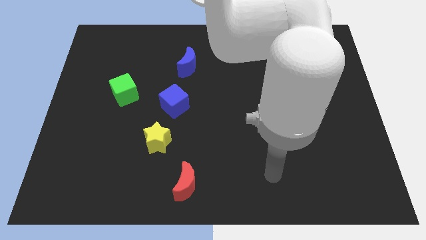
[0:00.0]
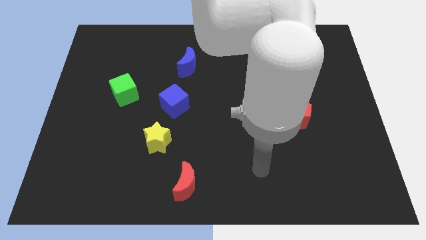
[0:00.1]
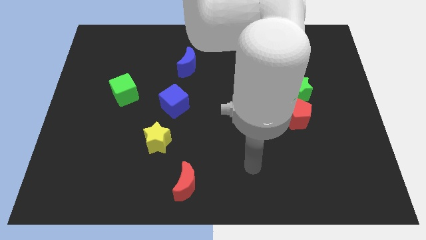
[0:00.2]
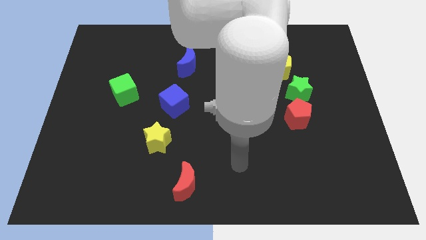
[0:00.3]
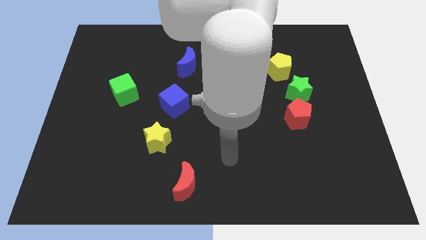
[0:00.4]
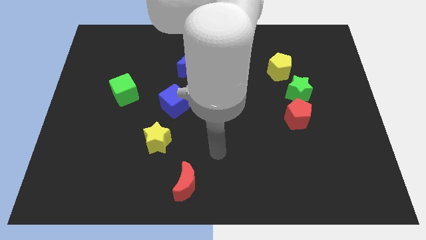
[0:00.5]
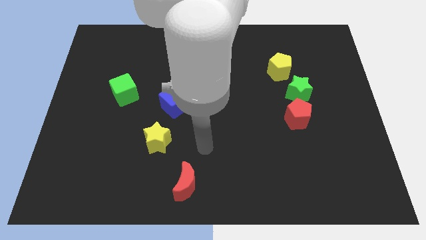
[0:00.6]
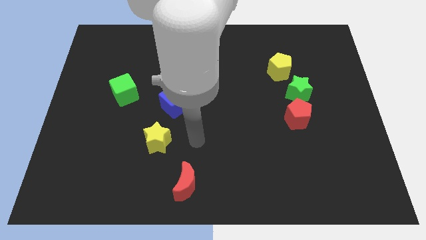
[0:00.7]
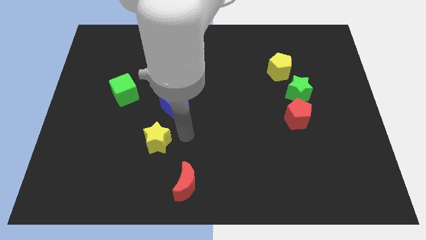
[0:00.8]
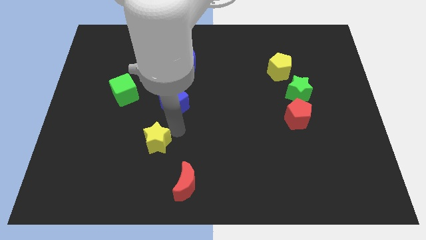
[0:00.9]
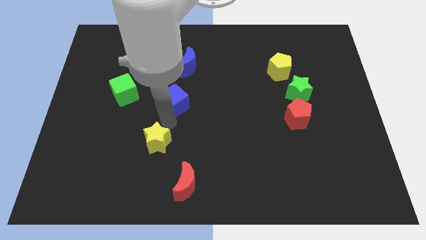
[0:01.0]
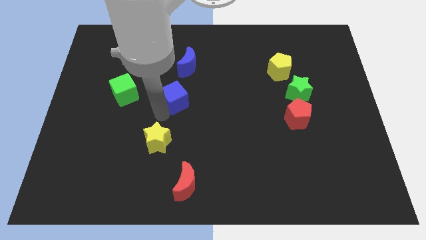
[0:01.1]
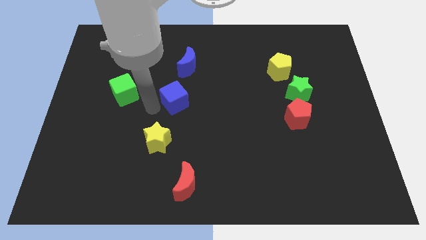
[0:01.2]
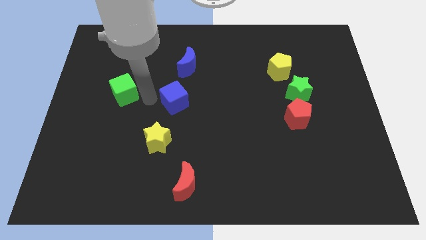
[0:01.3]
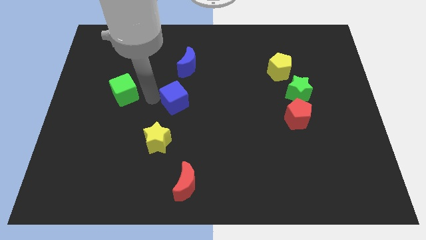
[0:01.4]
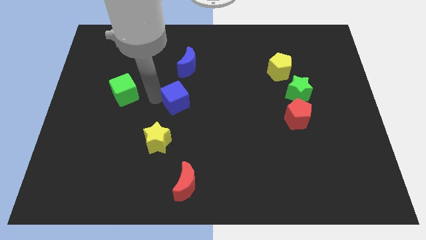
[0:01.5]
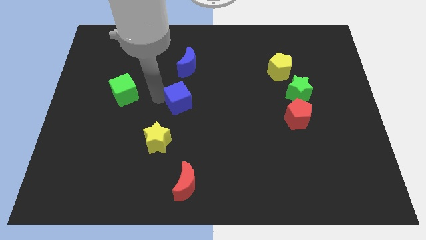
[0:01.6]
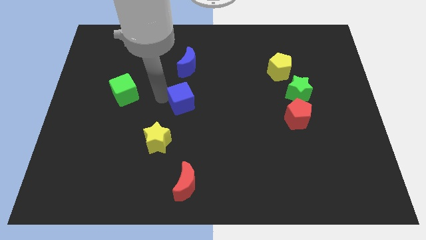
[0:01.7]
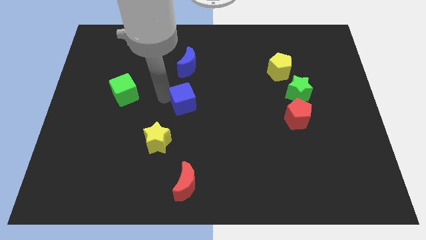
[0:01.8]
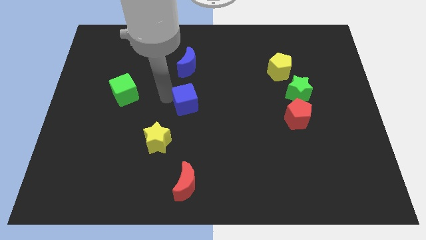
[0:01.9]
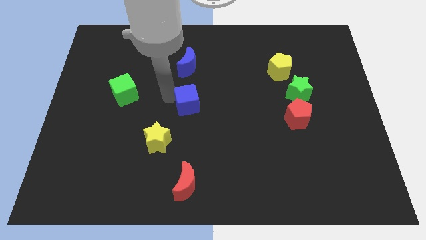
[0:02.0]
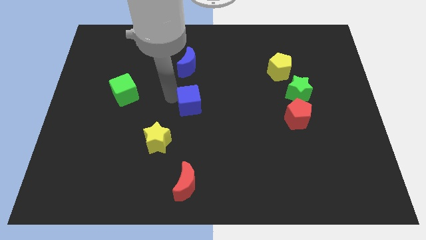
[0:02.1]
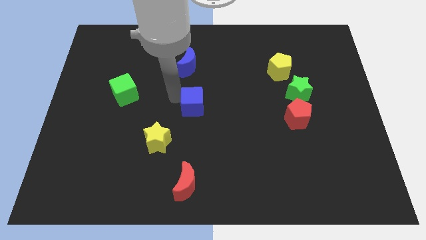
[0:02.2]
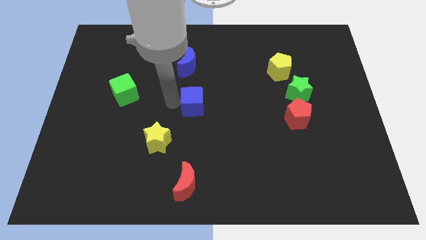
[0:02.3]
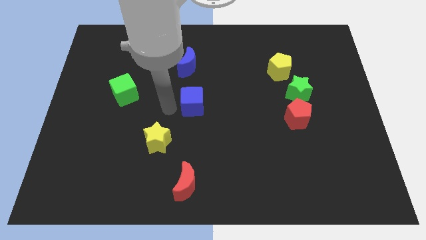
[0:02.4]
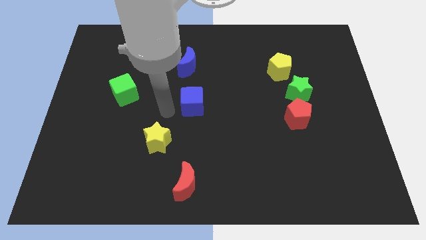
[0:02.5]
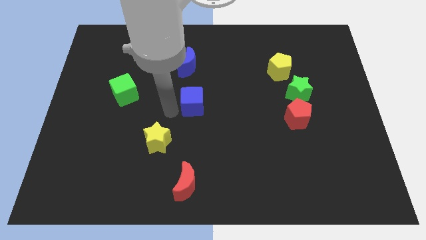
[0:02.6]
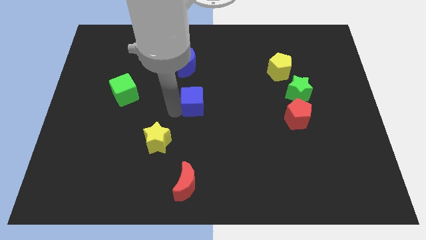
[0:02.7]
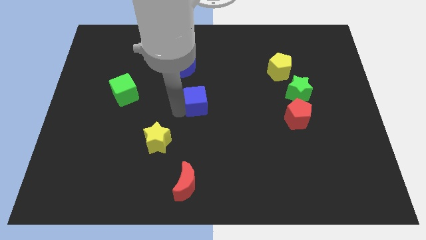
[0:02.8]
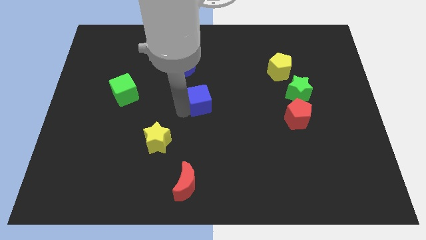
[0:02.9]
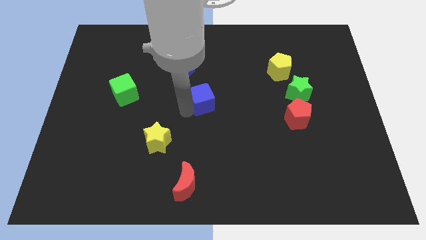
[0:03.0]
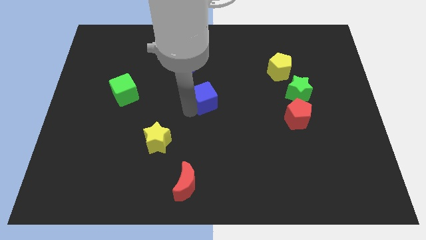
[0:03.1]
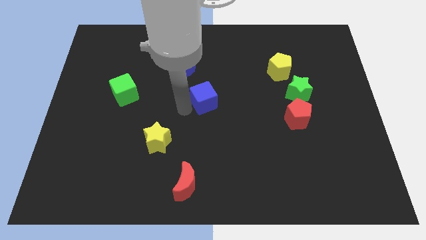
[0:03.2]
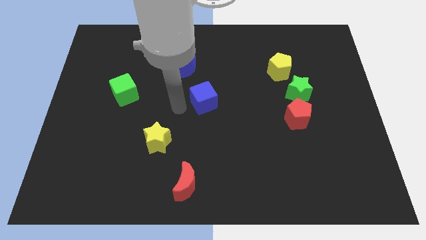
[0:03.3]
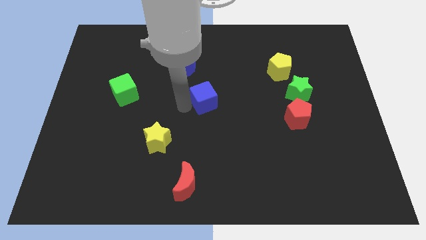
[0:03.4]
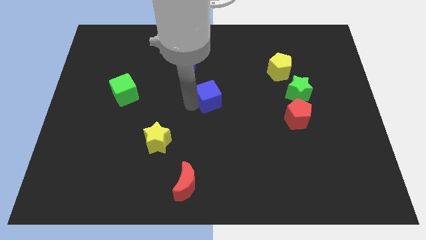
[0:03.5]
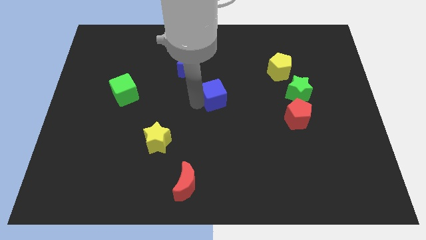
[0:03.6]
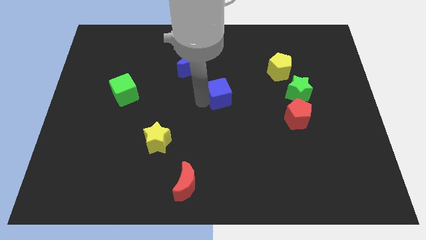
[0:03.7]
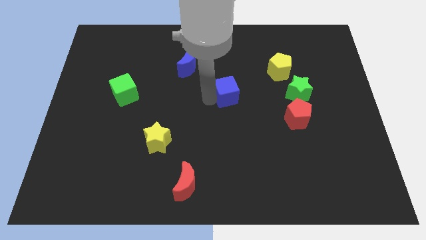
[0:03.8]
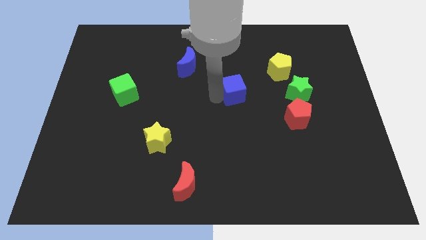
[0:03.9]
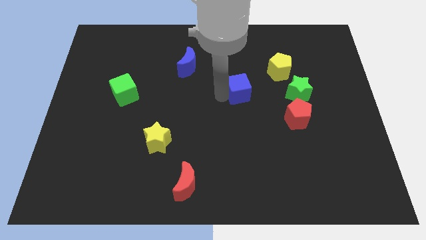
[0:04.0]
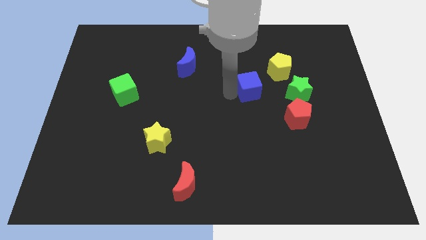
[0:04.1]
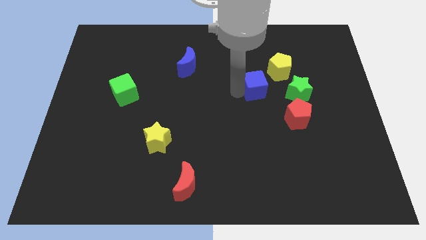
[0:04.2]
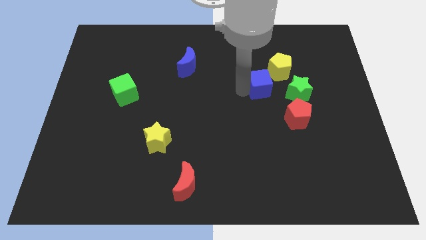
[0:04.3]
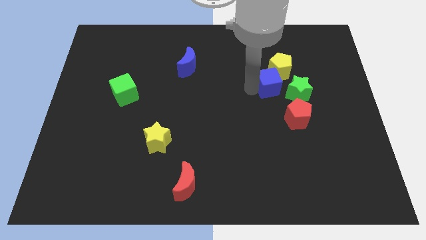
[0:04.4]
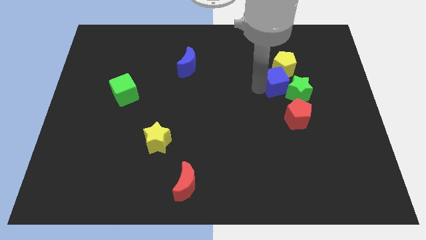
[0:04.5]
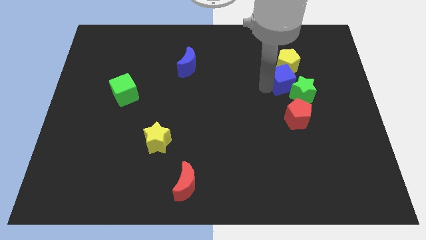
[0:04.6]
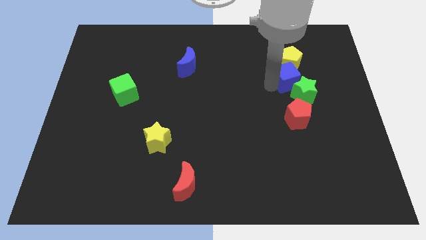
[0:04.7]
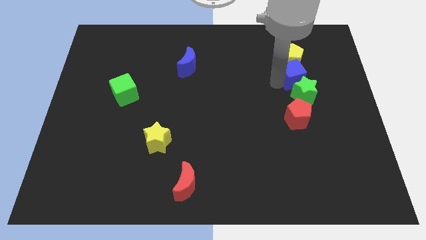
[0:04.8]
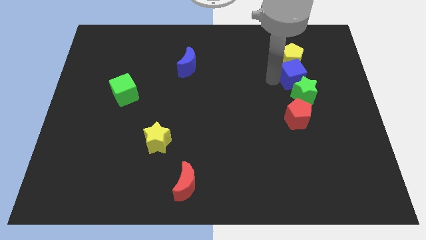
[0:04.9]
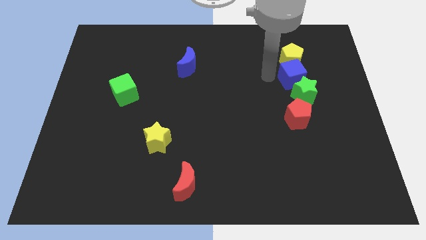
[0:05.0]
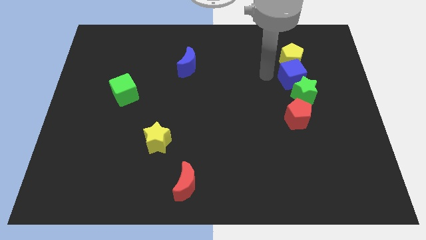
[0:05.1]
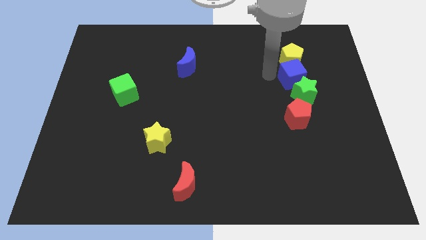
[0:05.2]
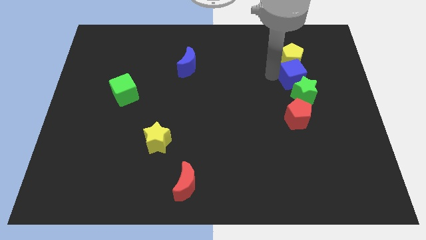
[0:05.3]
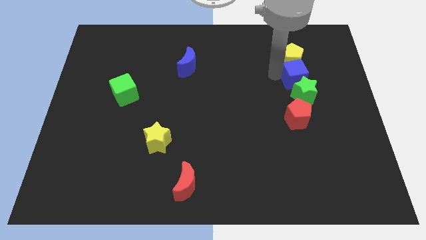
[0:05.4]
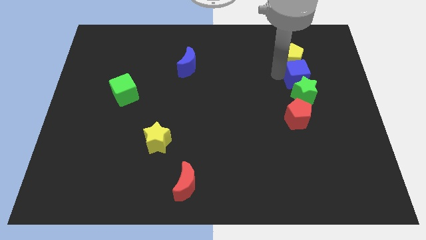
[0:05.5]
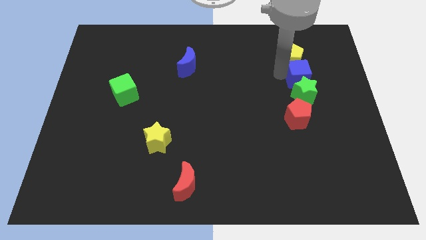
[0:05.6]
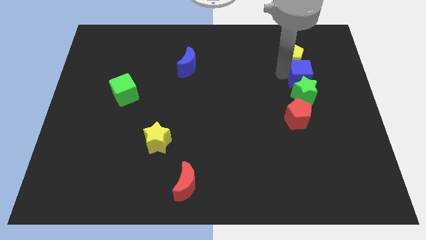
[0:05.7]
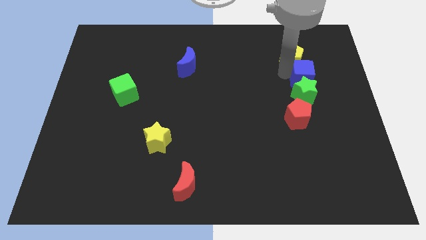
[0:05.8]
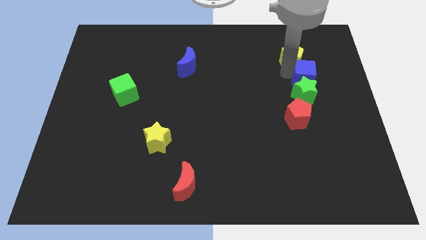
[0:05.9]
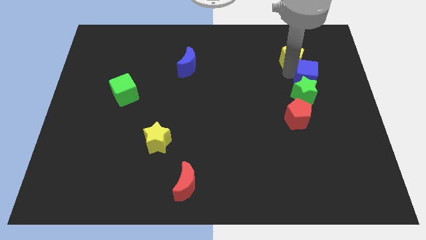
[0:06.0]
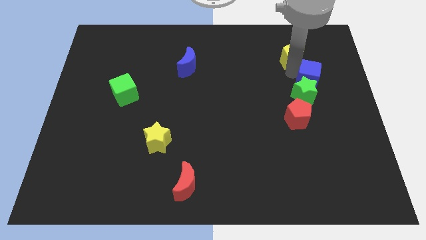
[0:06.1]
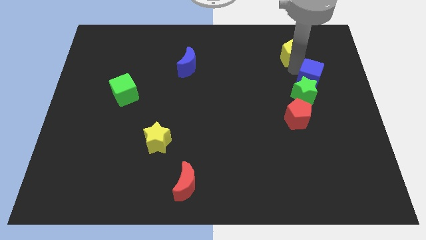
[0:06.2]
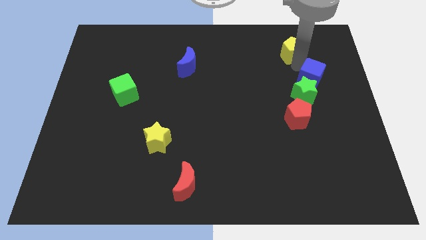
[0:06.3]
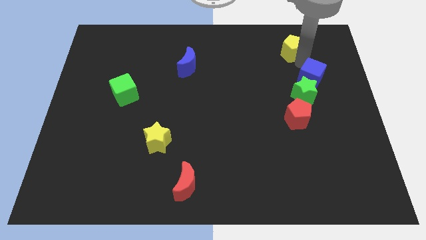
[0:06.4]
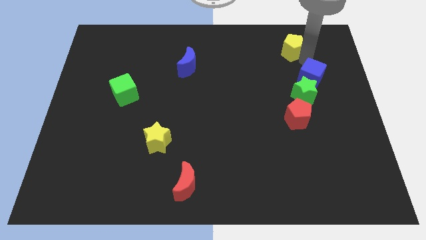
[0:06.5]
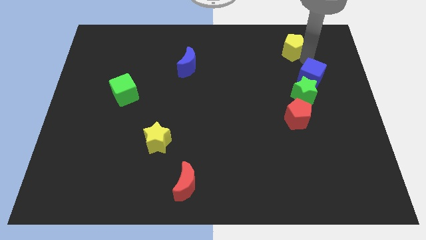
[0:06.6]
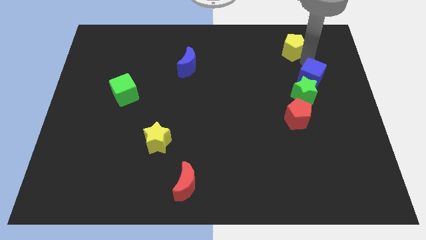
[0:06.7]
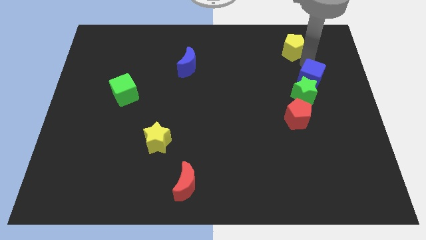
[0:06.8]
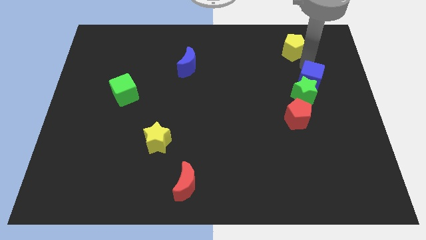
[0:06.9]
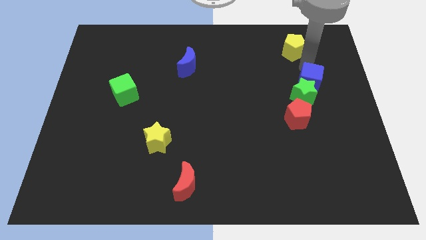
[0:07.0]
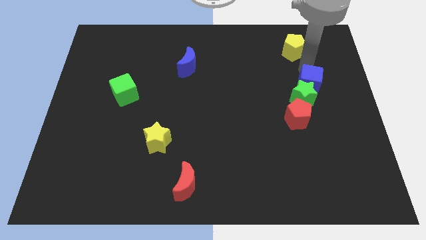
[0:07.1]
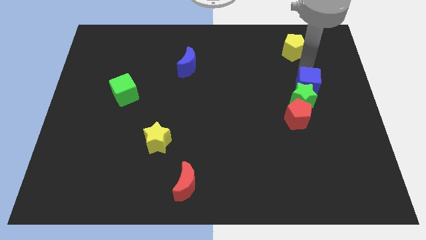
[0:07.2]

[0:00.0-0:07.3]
put the blue cube to the top right of the red pentagon

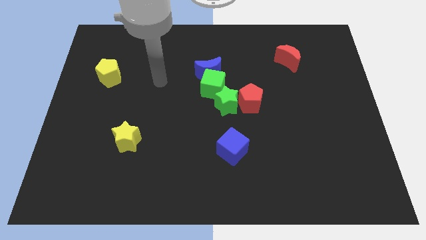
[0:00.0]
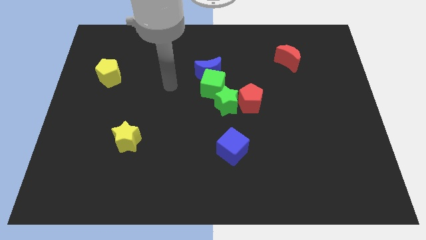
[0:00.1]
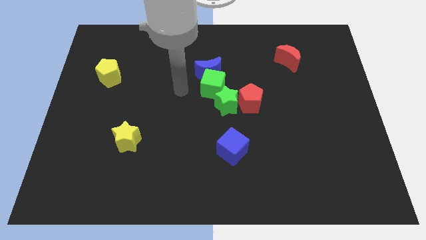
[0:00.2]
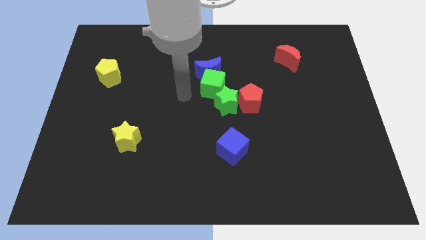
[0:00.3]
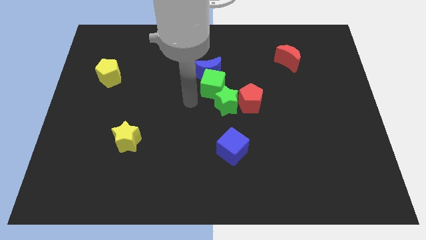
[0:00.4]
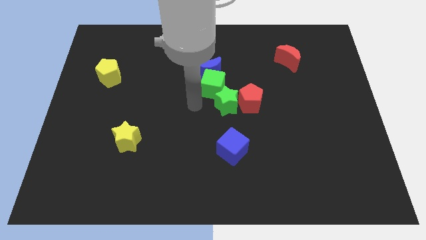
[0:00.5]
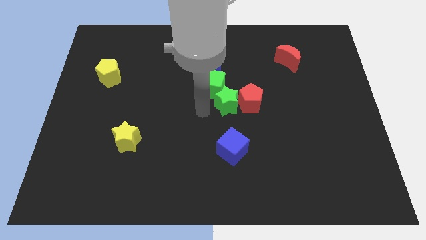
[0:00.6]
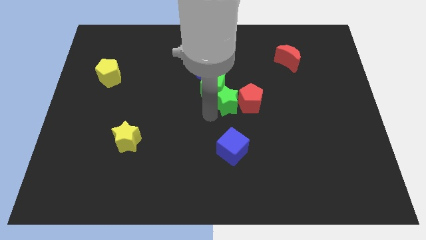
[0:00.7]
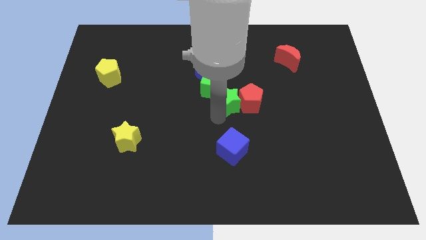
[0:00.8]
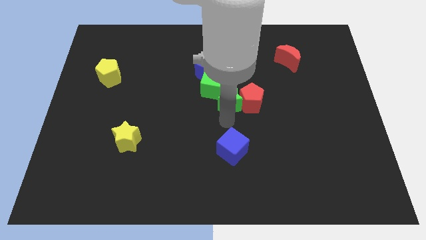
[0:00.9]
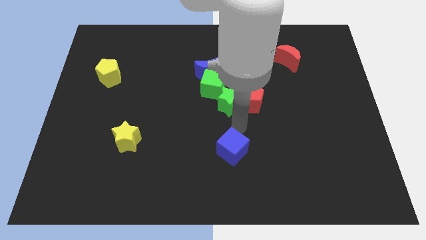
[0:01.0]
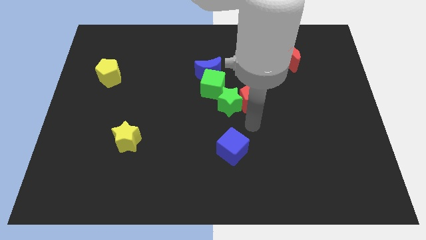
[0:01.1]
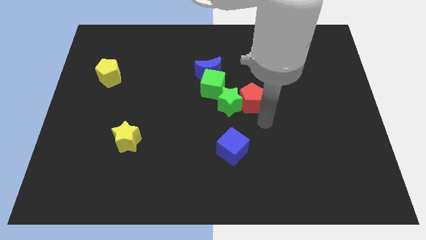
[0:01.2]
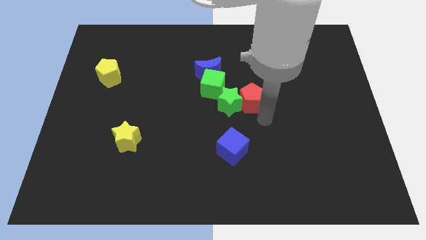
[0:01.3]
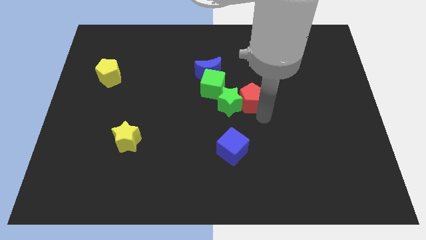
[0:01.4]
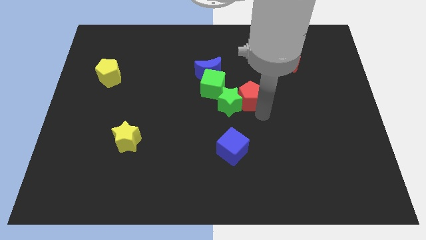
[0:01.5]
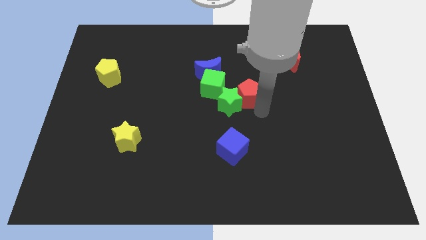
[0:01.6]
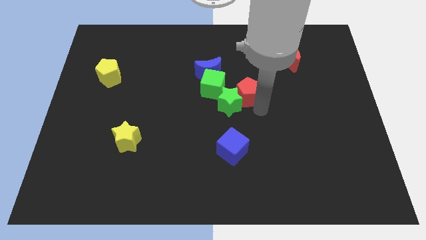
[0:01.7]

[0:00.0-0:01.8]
slide the red pentagon to the top of the green star
